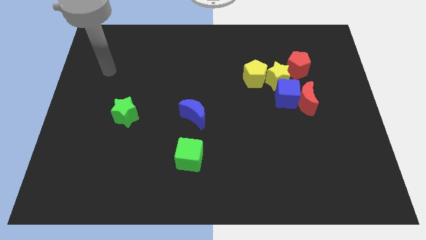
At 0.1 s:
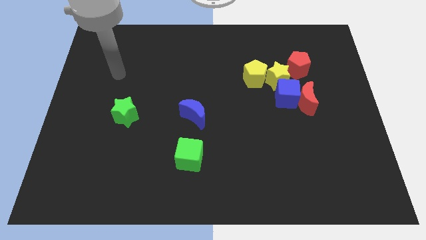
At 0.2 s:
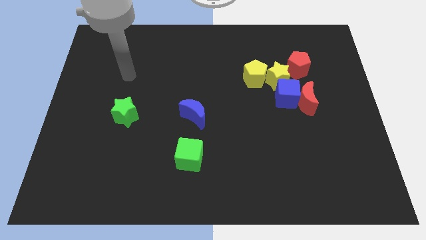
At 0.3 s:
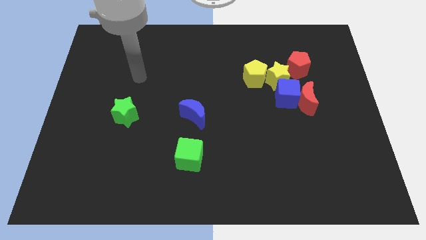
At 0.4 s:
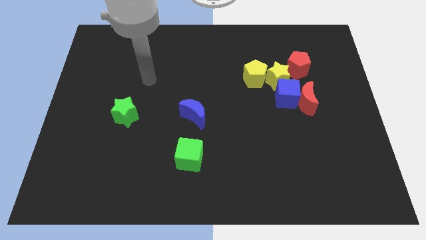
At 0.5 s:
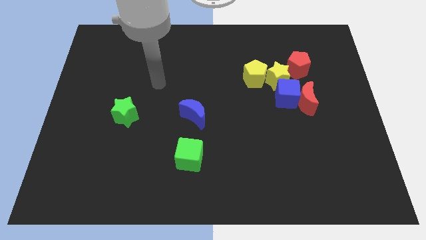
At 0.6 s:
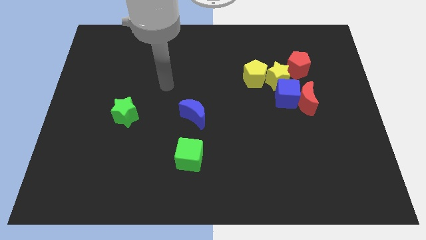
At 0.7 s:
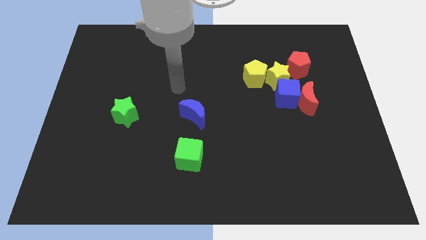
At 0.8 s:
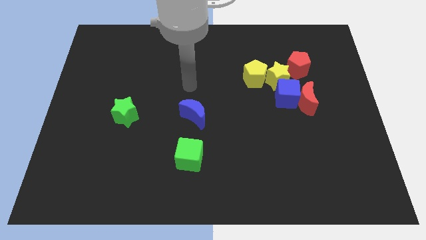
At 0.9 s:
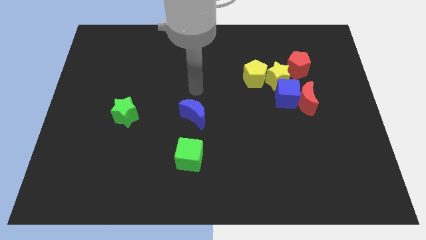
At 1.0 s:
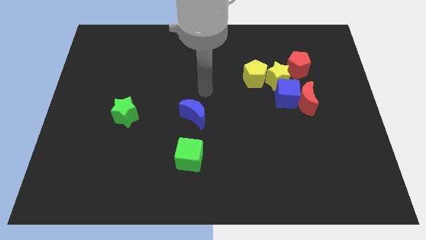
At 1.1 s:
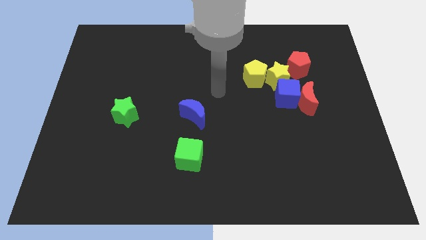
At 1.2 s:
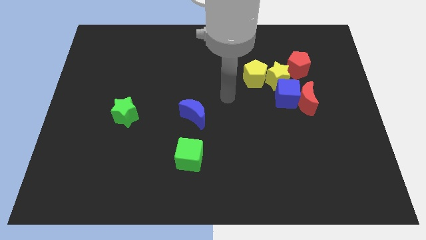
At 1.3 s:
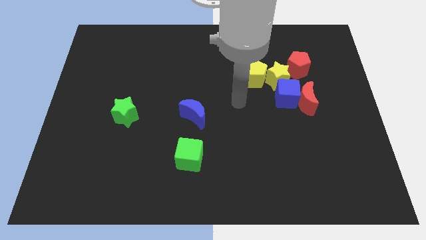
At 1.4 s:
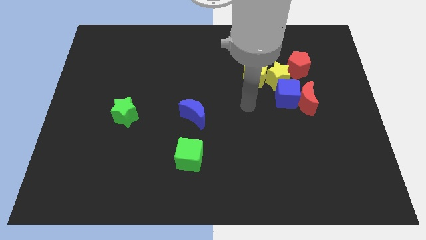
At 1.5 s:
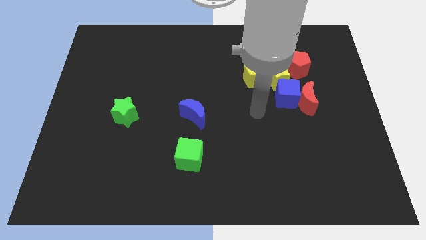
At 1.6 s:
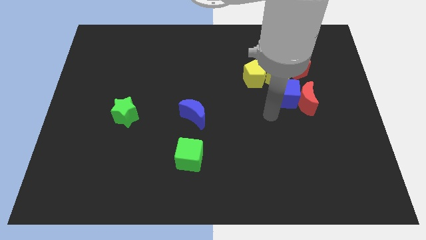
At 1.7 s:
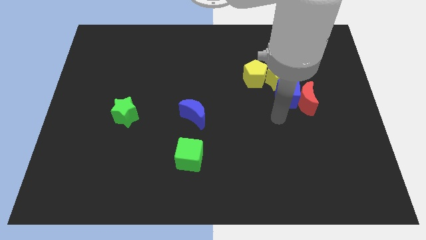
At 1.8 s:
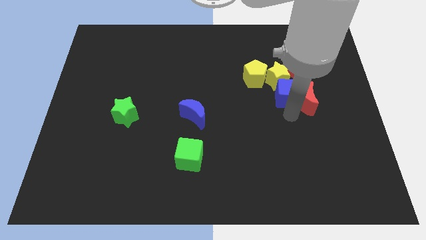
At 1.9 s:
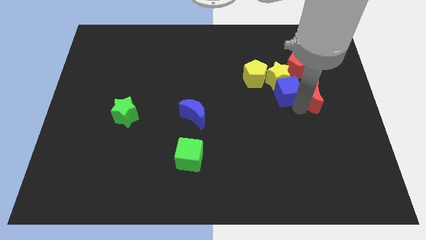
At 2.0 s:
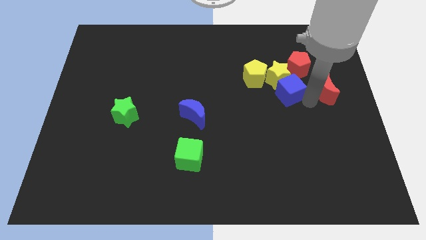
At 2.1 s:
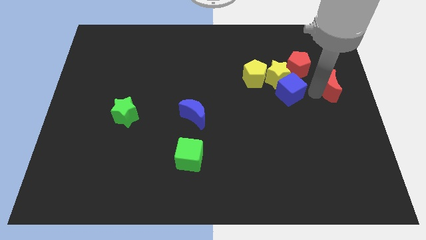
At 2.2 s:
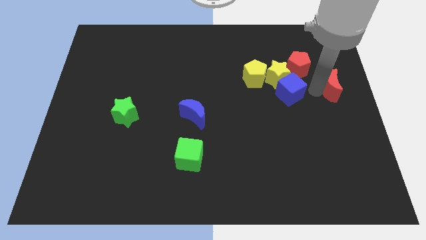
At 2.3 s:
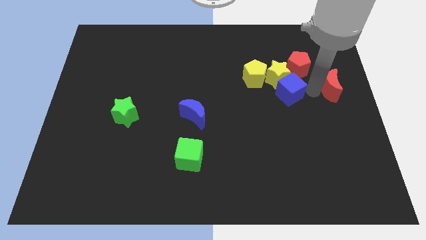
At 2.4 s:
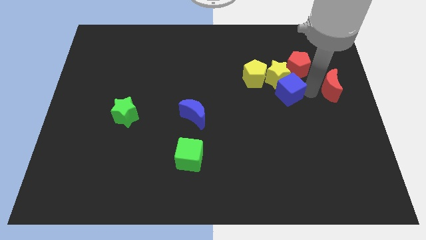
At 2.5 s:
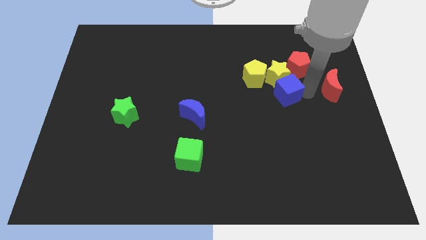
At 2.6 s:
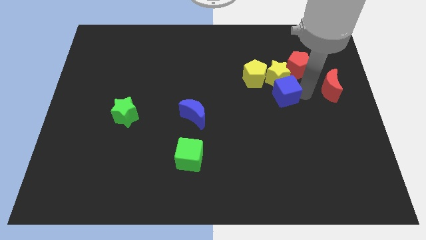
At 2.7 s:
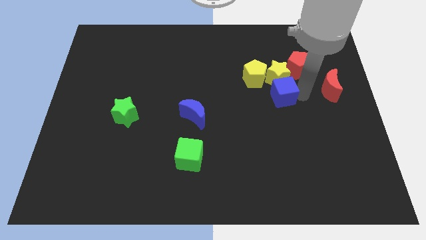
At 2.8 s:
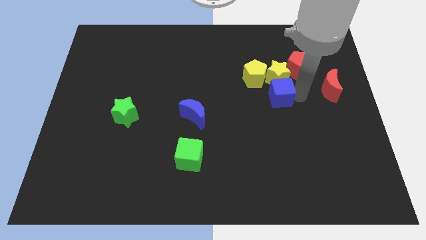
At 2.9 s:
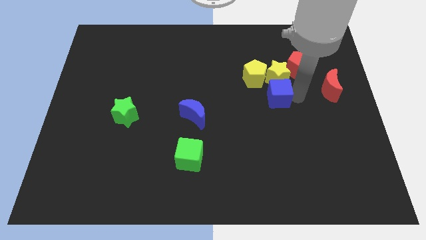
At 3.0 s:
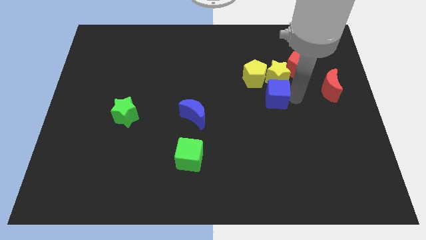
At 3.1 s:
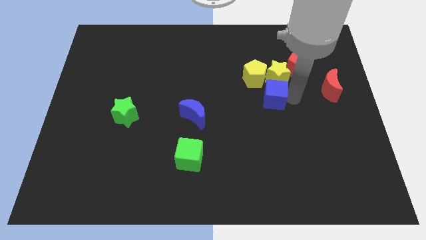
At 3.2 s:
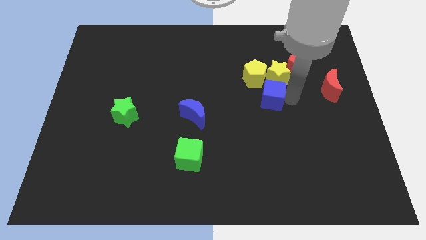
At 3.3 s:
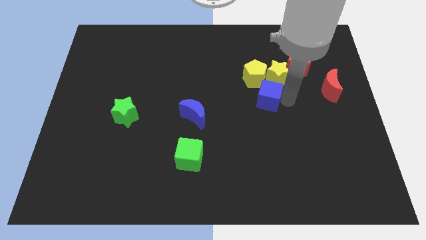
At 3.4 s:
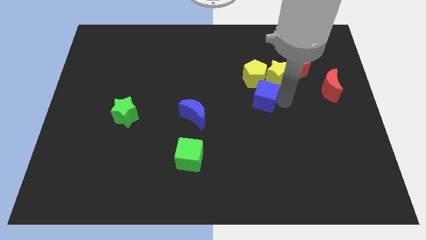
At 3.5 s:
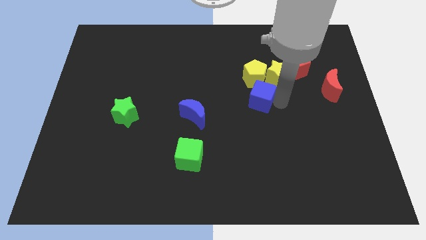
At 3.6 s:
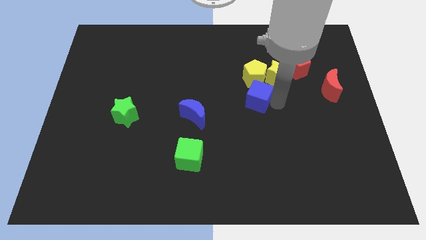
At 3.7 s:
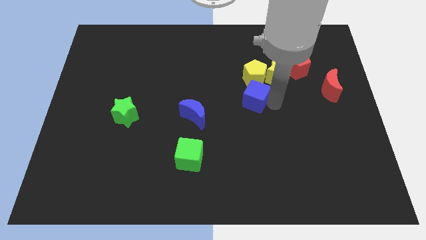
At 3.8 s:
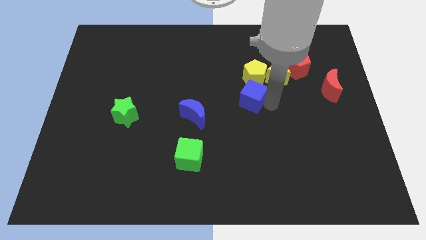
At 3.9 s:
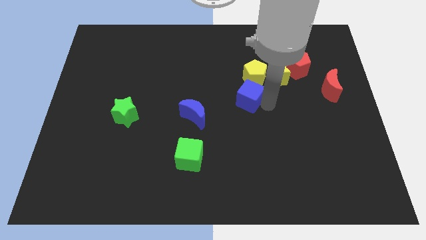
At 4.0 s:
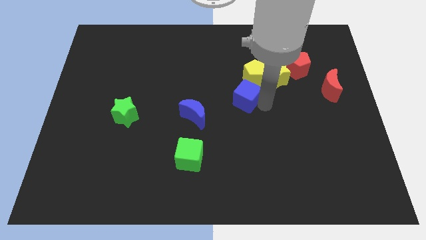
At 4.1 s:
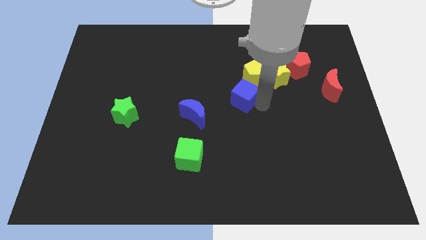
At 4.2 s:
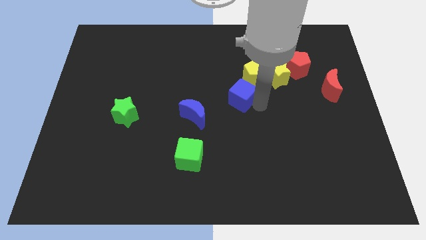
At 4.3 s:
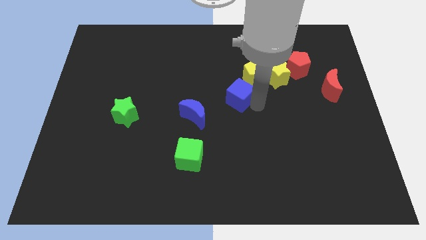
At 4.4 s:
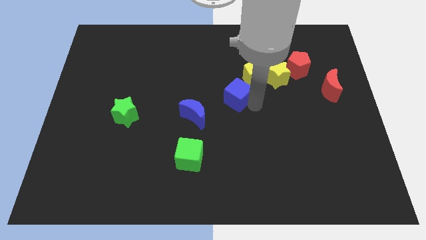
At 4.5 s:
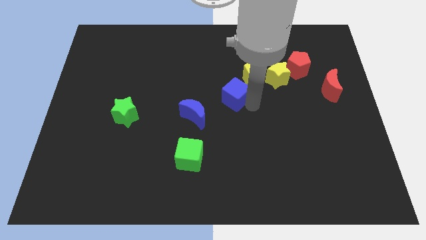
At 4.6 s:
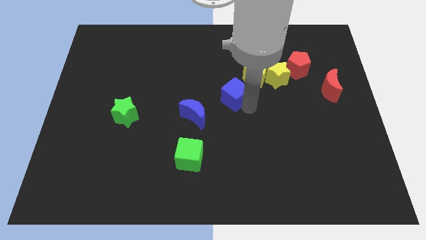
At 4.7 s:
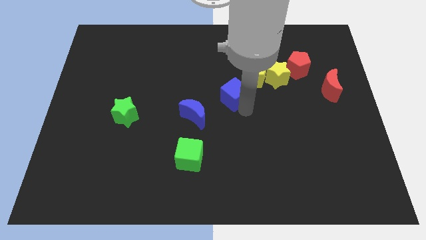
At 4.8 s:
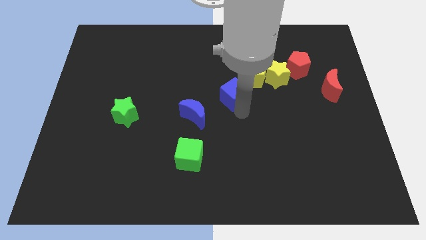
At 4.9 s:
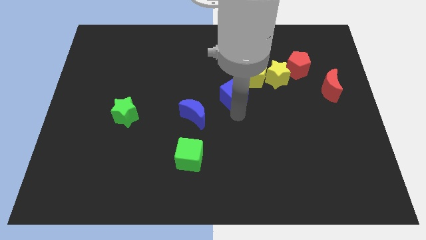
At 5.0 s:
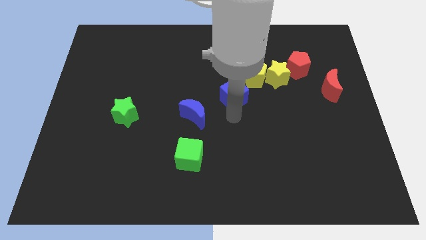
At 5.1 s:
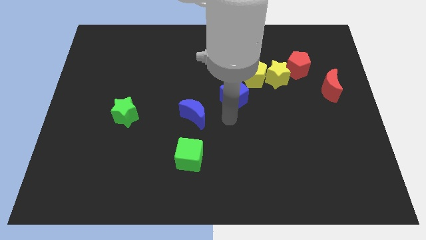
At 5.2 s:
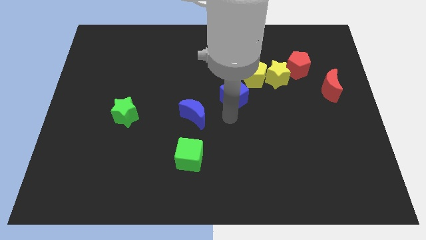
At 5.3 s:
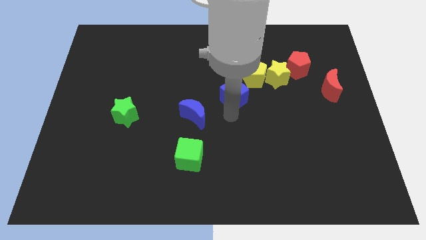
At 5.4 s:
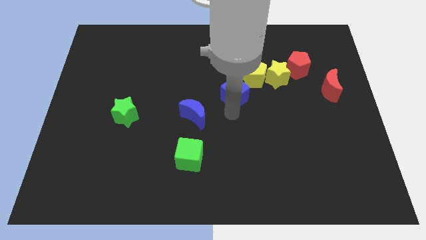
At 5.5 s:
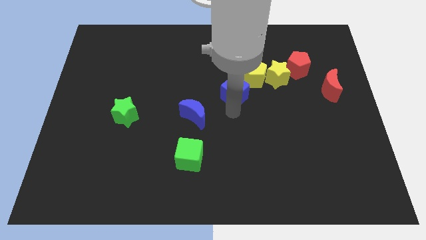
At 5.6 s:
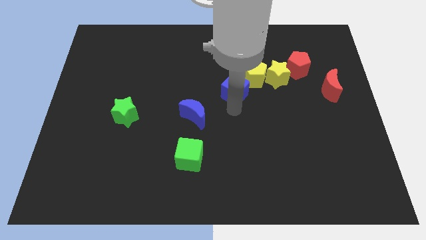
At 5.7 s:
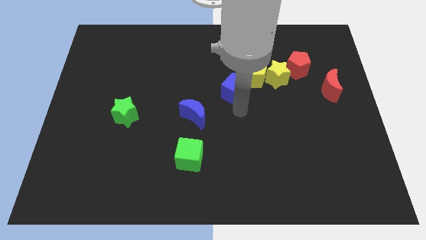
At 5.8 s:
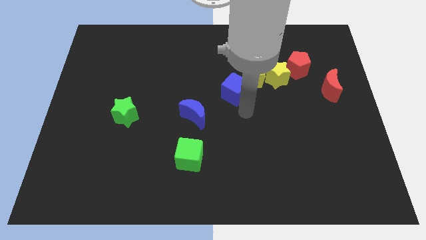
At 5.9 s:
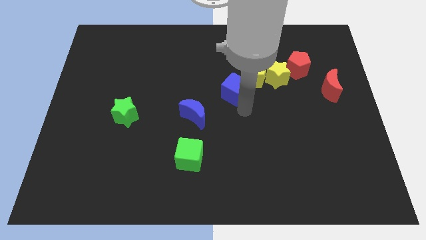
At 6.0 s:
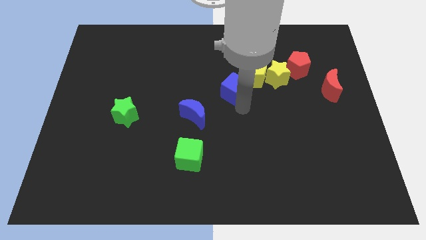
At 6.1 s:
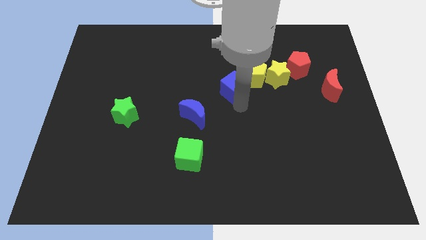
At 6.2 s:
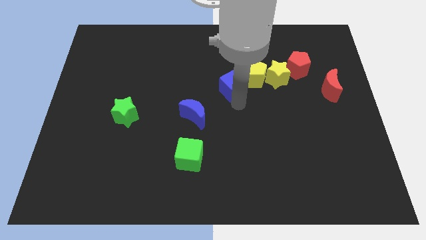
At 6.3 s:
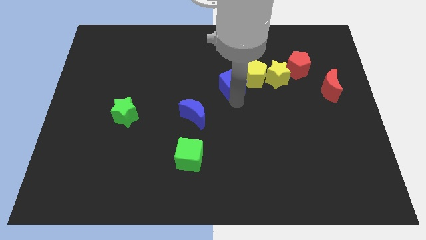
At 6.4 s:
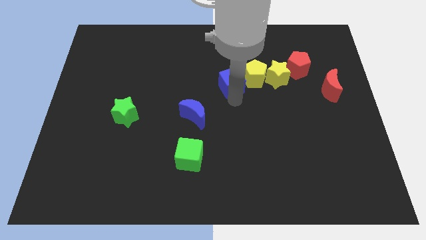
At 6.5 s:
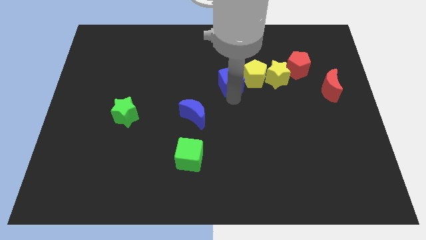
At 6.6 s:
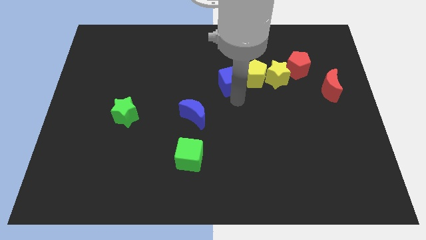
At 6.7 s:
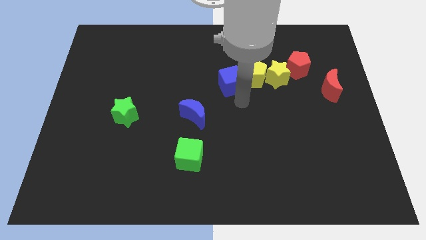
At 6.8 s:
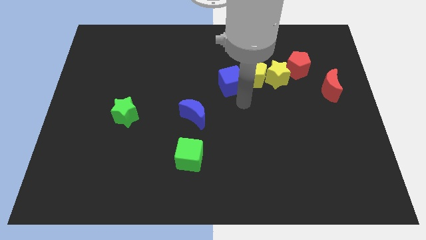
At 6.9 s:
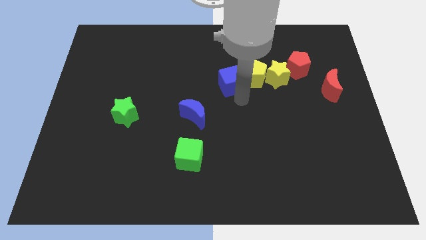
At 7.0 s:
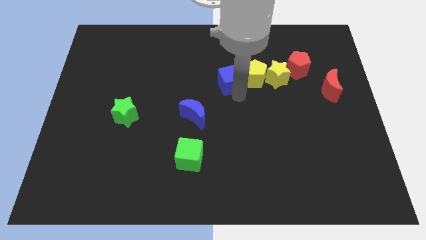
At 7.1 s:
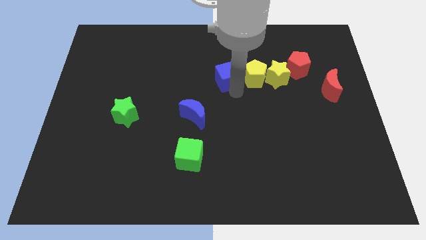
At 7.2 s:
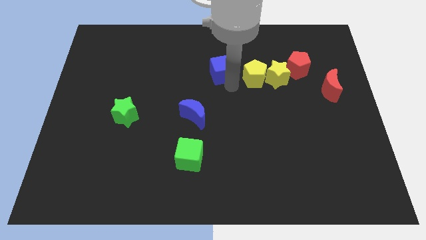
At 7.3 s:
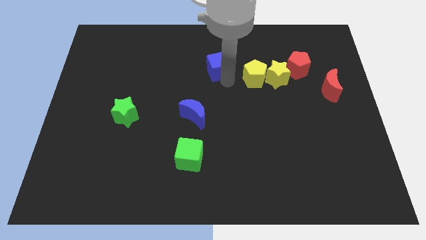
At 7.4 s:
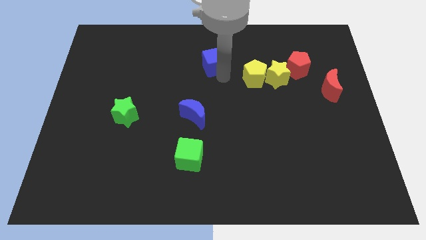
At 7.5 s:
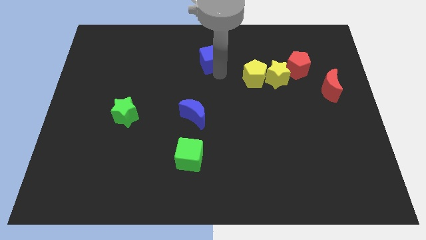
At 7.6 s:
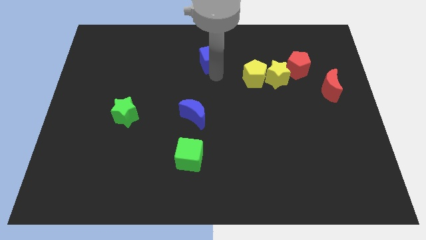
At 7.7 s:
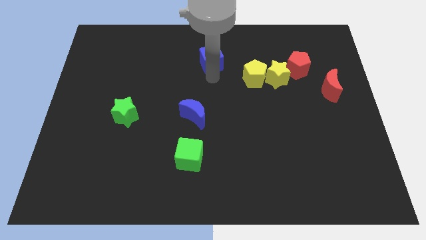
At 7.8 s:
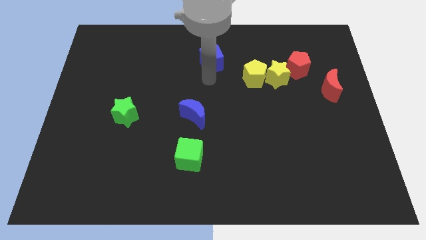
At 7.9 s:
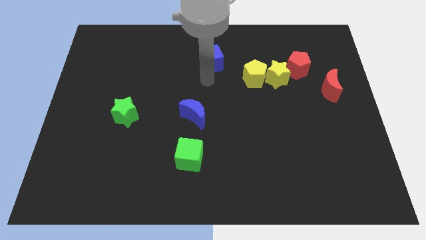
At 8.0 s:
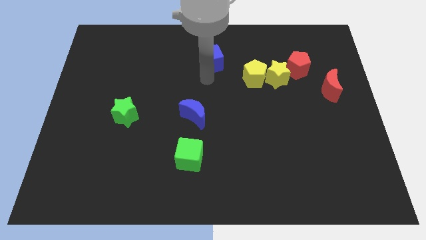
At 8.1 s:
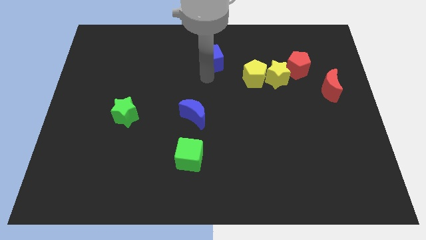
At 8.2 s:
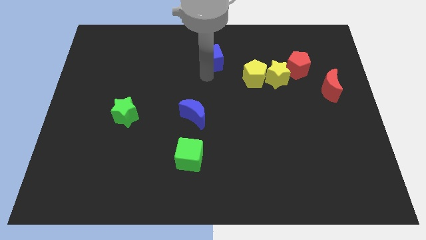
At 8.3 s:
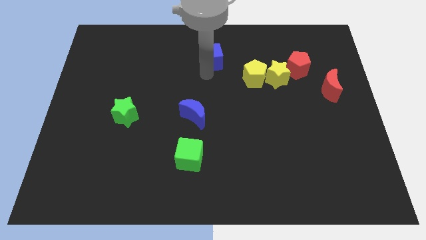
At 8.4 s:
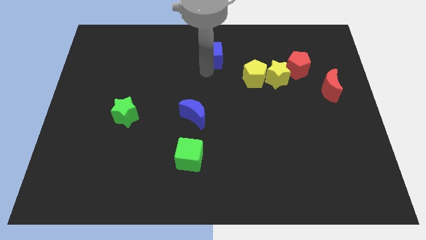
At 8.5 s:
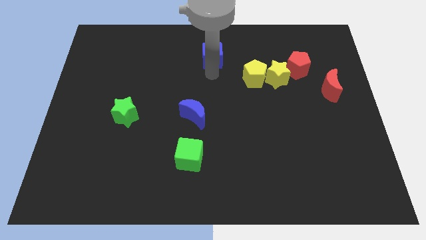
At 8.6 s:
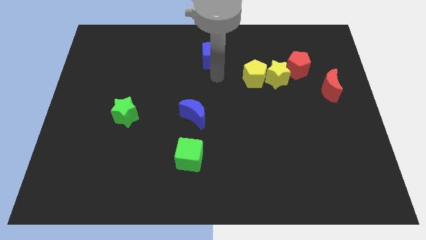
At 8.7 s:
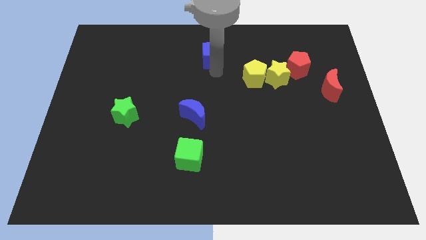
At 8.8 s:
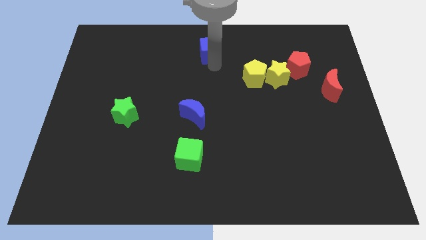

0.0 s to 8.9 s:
slide the blue cube to the top
